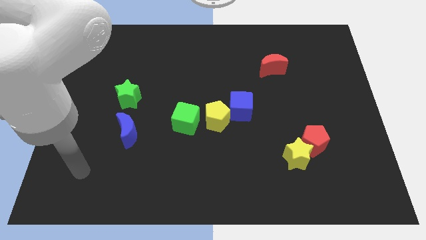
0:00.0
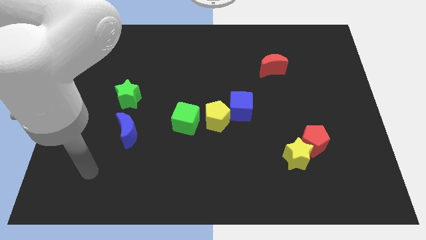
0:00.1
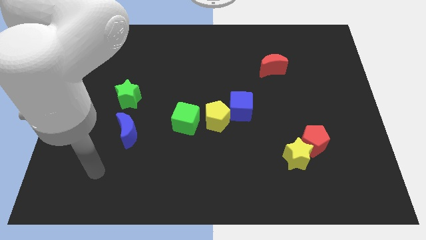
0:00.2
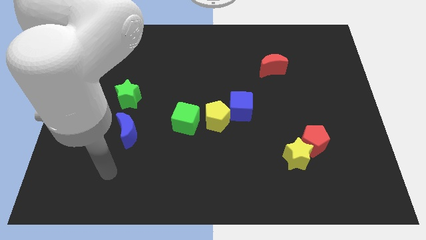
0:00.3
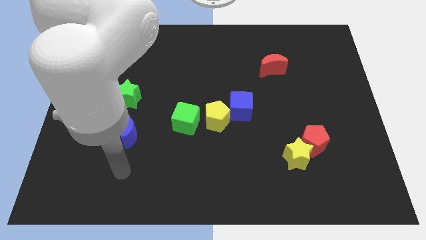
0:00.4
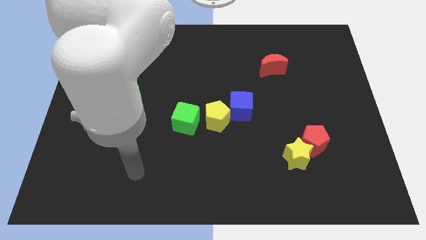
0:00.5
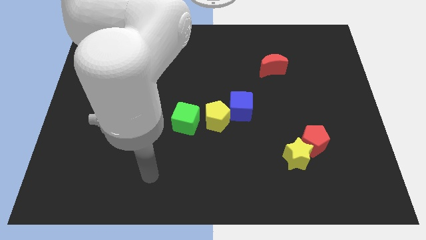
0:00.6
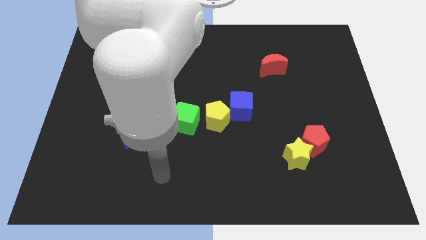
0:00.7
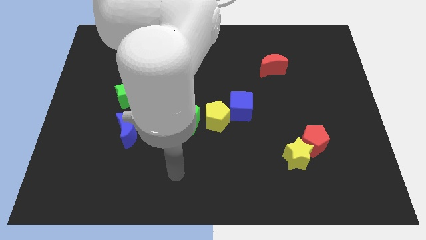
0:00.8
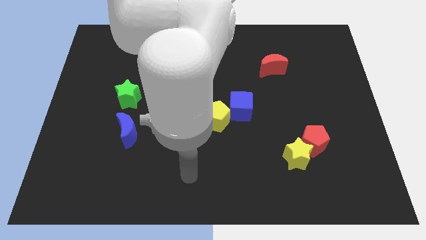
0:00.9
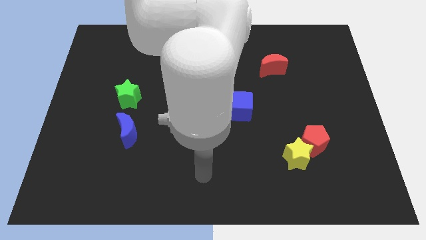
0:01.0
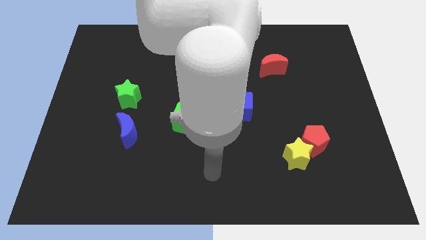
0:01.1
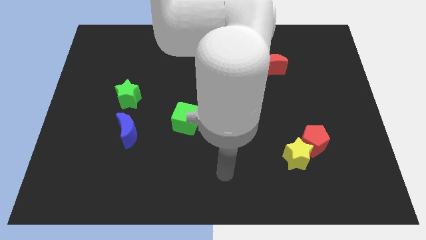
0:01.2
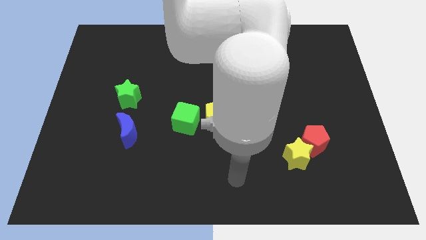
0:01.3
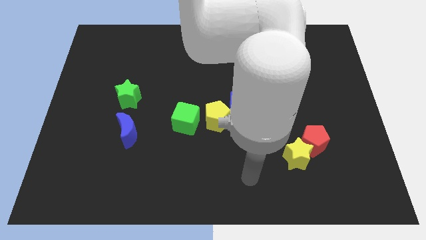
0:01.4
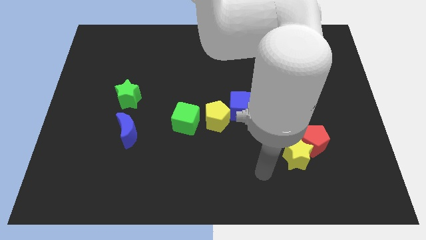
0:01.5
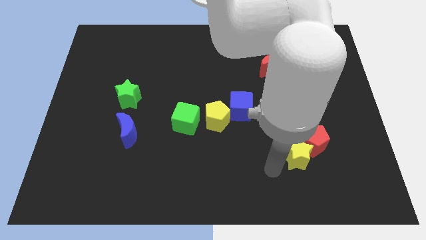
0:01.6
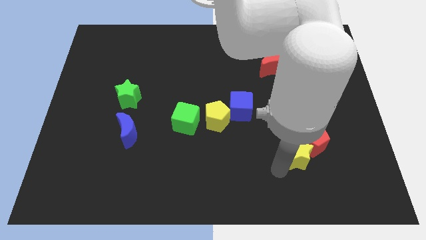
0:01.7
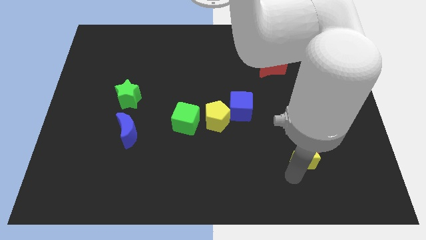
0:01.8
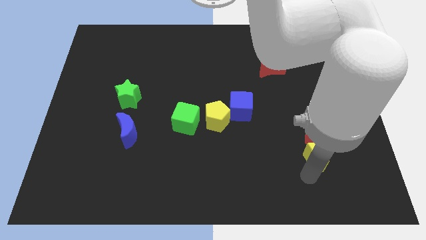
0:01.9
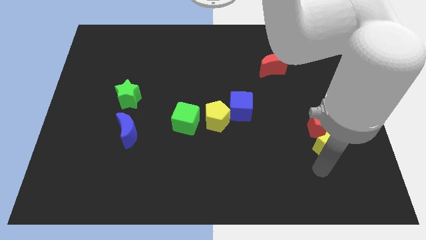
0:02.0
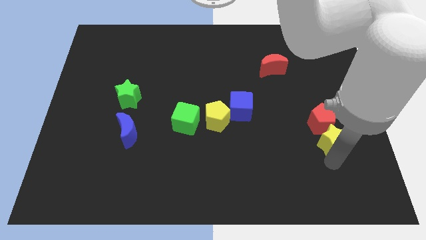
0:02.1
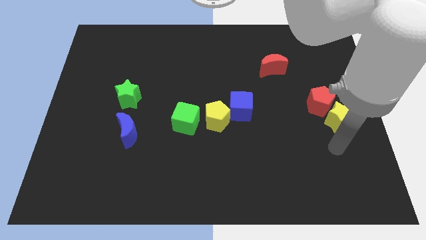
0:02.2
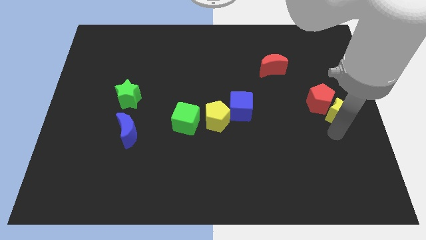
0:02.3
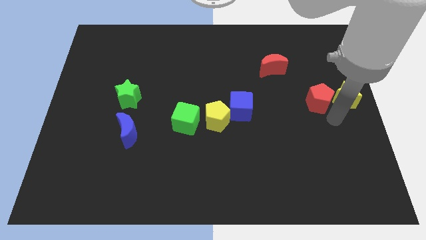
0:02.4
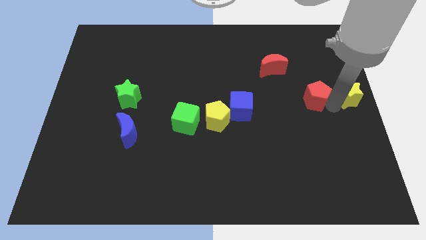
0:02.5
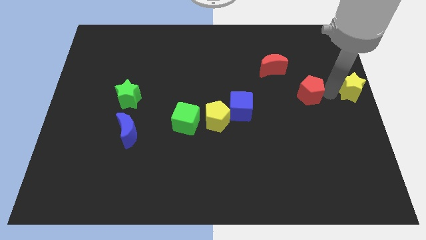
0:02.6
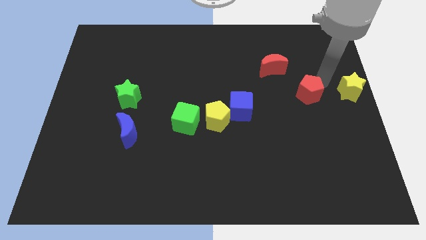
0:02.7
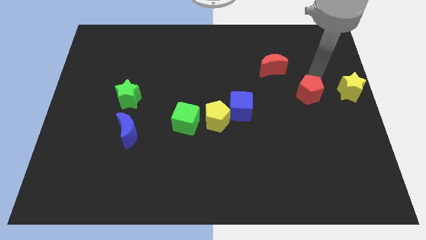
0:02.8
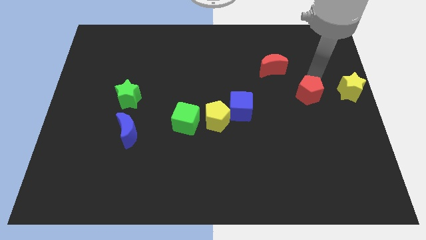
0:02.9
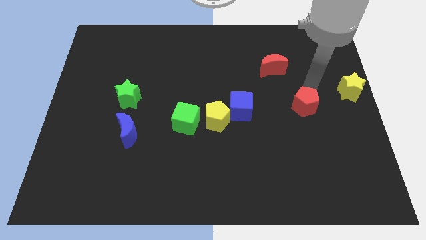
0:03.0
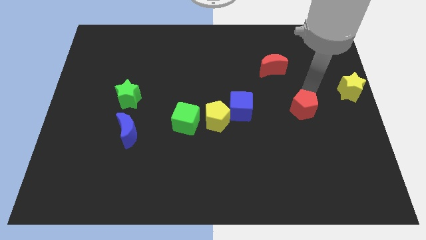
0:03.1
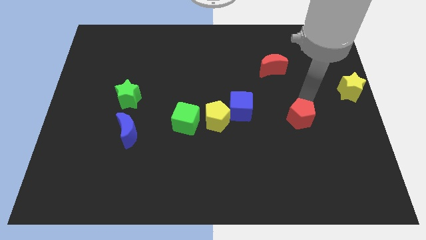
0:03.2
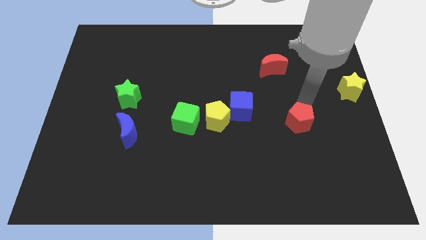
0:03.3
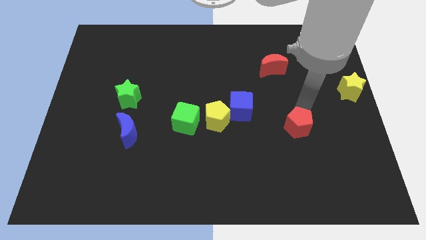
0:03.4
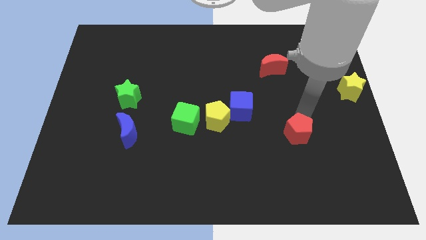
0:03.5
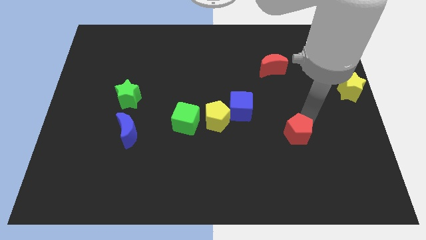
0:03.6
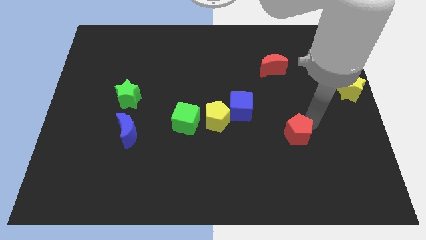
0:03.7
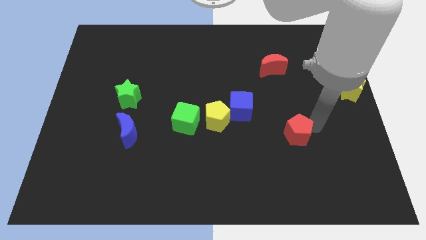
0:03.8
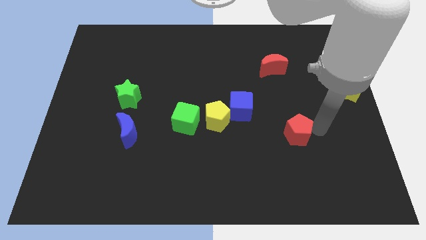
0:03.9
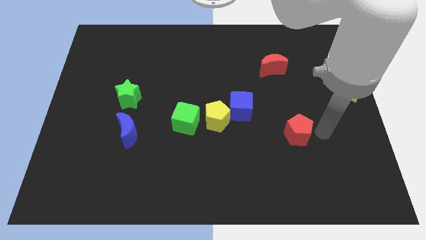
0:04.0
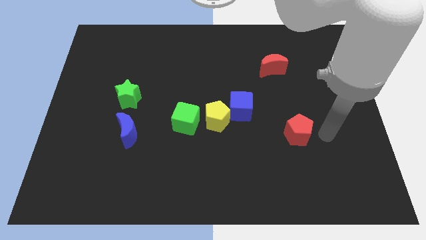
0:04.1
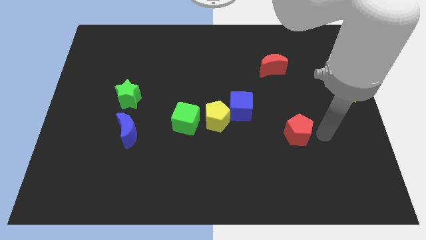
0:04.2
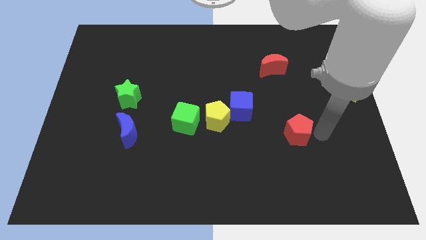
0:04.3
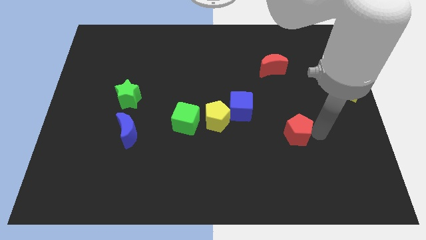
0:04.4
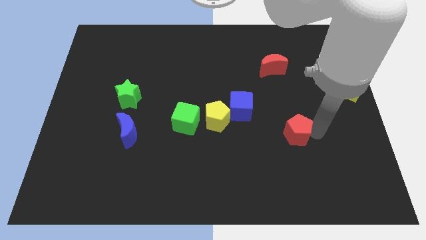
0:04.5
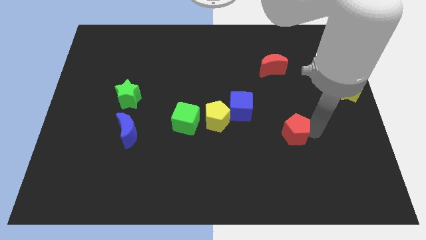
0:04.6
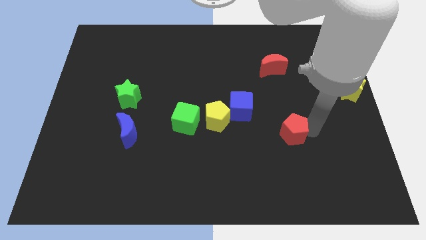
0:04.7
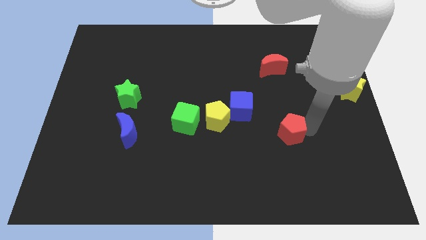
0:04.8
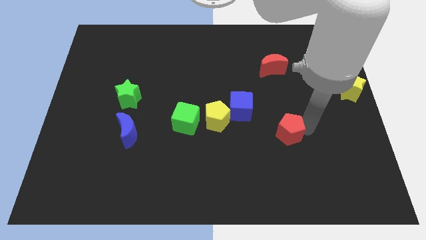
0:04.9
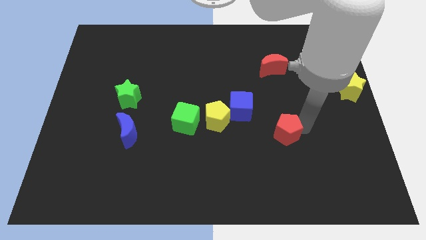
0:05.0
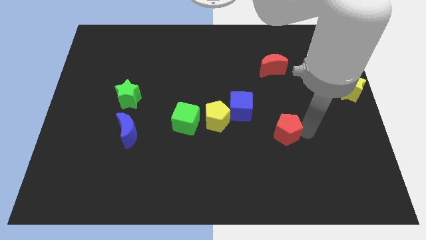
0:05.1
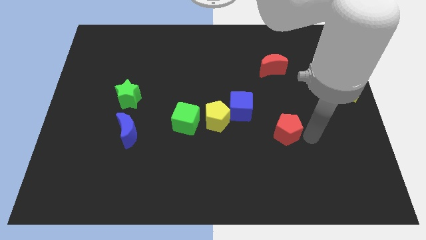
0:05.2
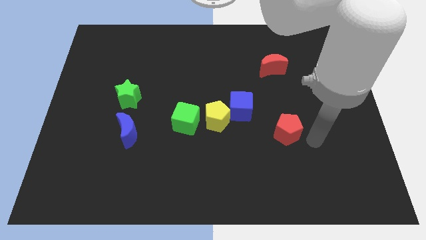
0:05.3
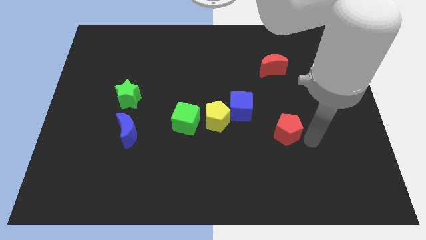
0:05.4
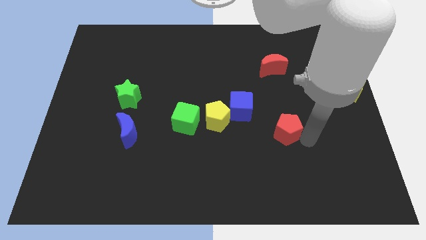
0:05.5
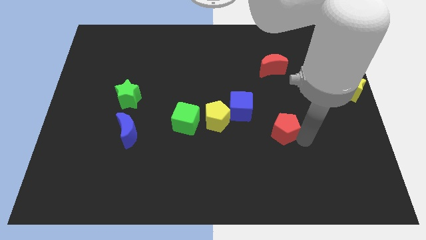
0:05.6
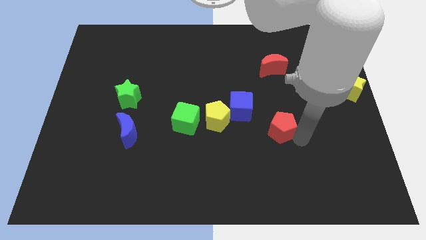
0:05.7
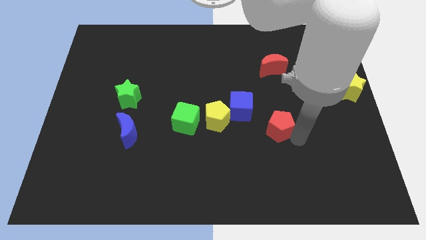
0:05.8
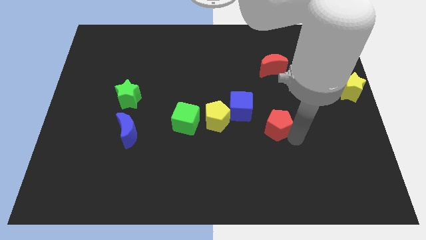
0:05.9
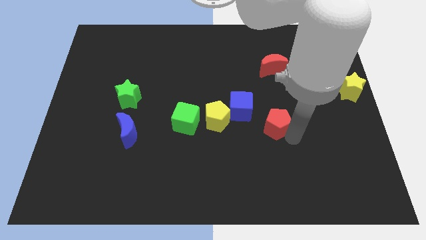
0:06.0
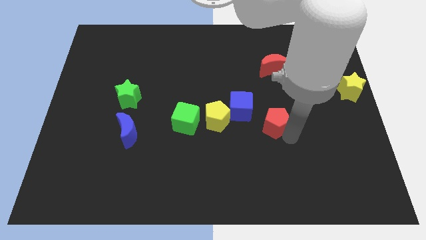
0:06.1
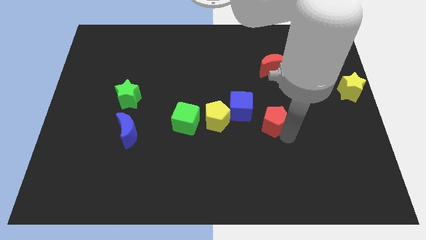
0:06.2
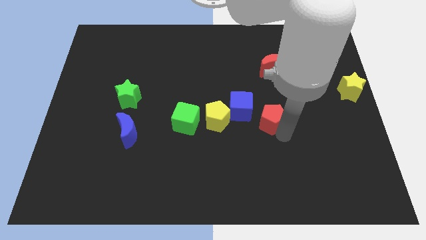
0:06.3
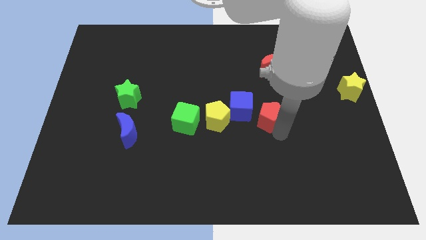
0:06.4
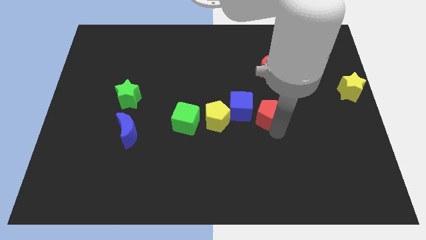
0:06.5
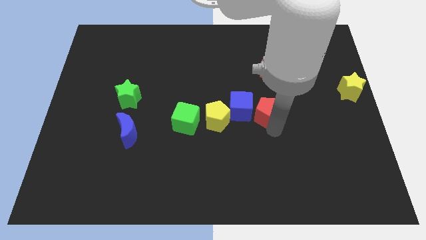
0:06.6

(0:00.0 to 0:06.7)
slide the red pentagon towards the blue cube

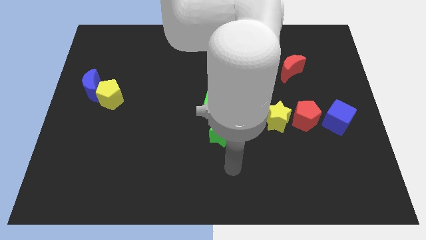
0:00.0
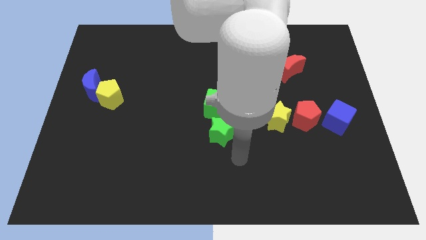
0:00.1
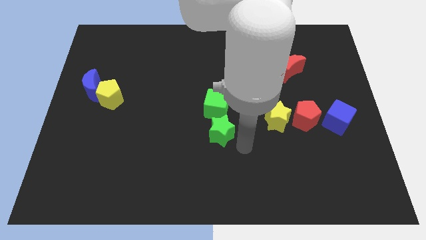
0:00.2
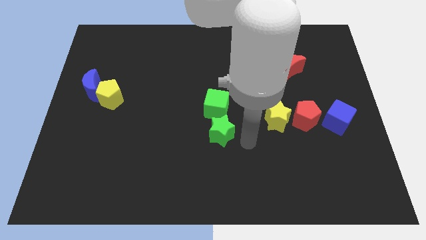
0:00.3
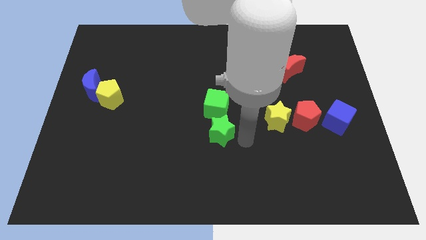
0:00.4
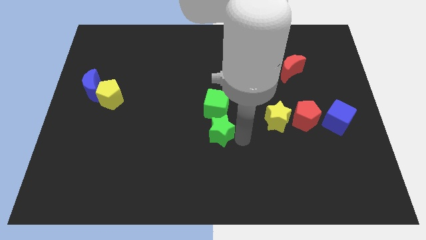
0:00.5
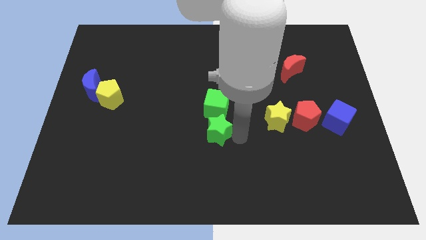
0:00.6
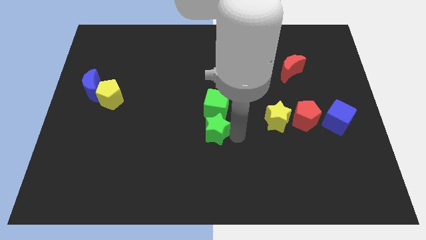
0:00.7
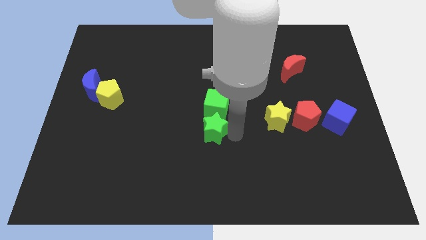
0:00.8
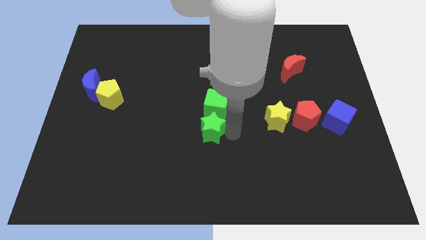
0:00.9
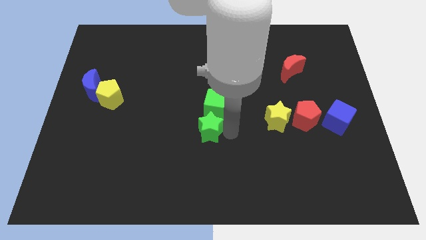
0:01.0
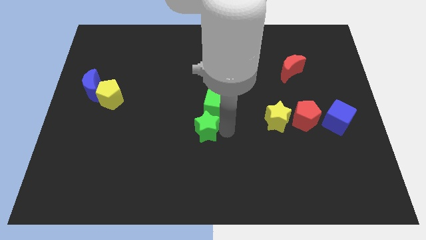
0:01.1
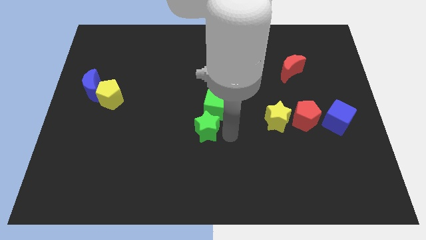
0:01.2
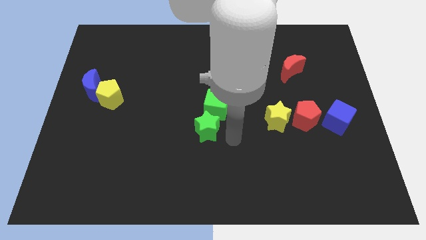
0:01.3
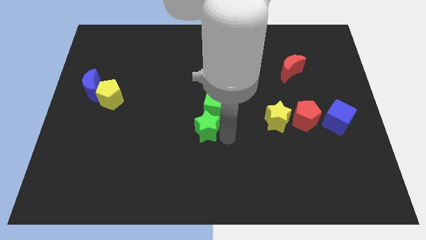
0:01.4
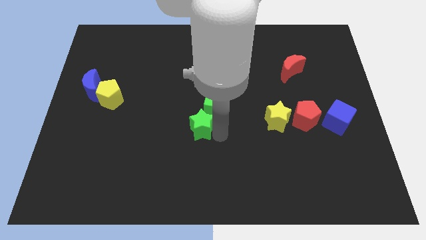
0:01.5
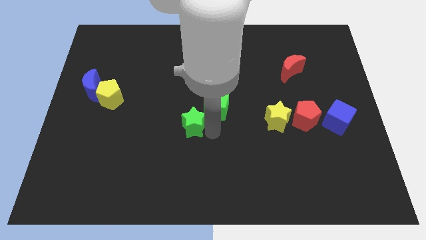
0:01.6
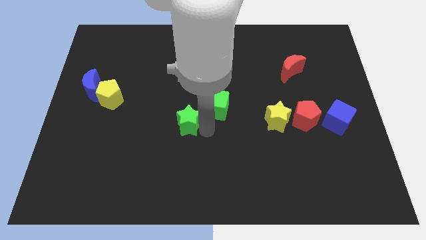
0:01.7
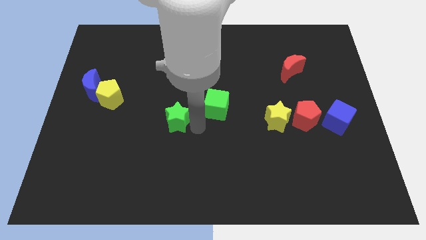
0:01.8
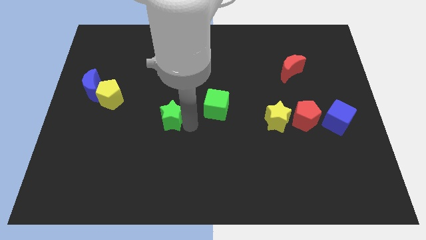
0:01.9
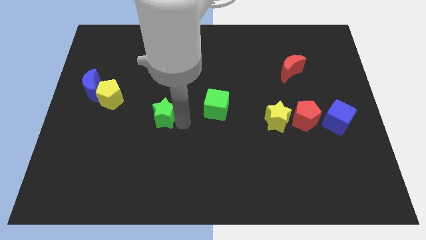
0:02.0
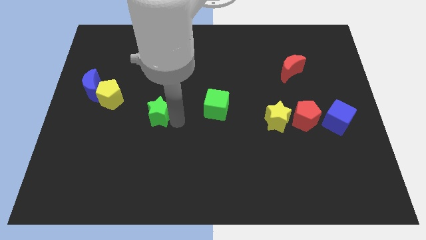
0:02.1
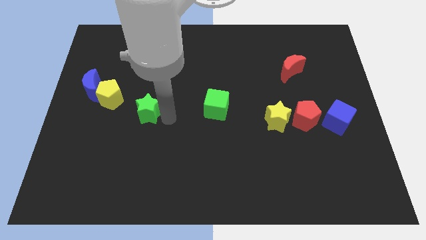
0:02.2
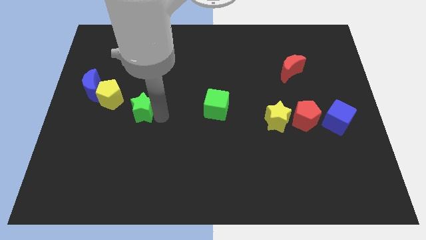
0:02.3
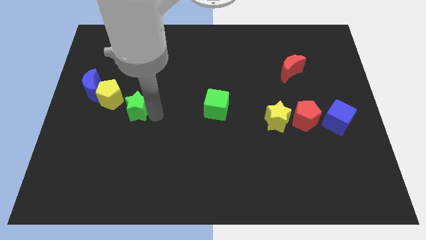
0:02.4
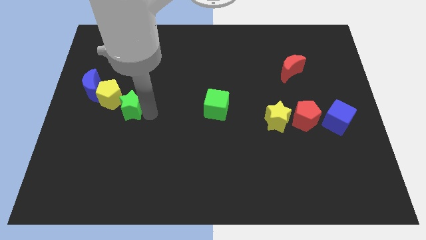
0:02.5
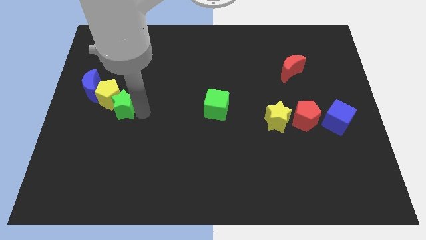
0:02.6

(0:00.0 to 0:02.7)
slide the green star next to the yellow pentagon
